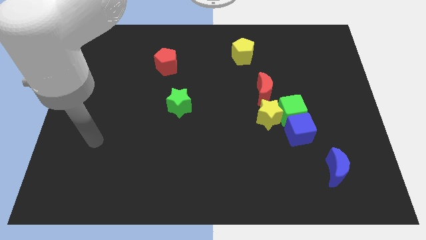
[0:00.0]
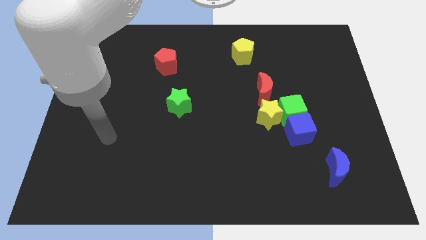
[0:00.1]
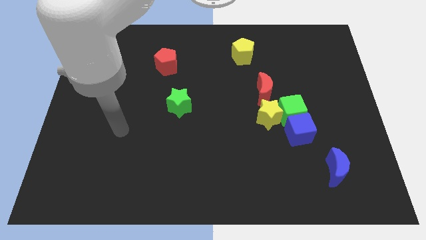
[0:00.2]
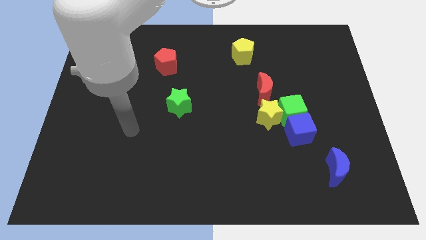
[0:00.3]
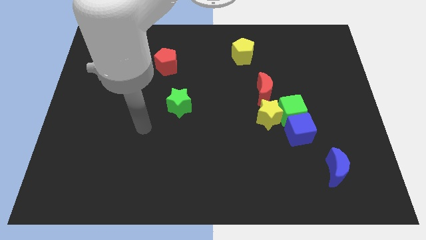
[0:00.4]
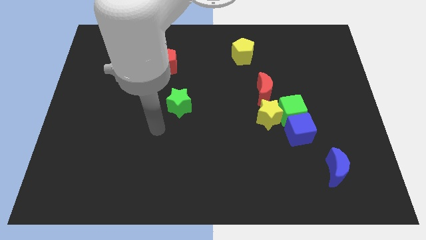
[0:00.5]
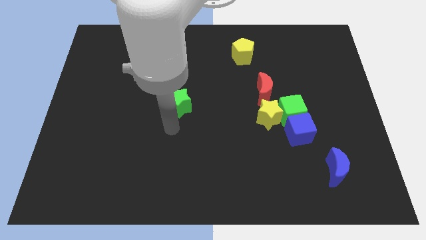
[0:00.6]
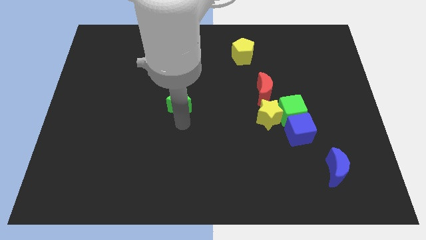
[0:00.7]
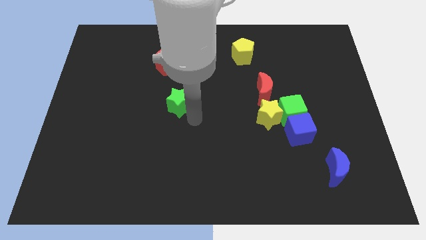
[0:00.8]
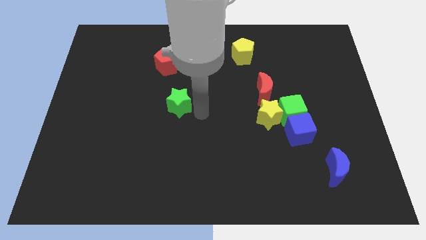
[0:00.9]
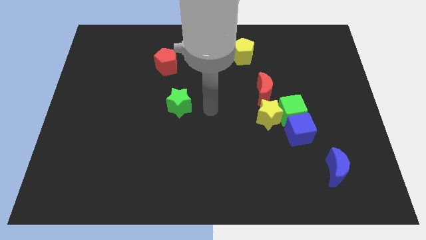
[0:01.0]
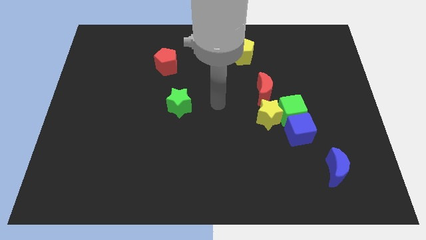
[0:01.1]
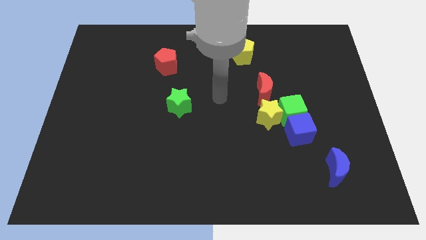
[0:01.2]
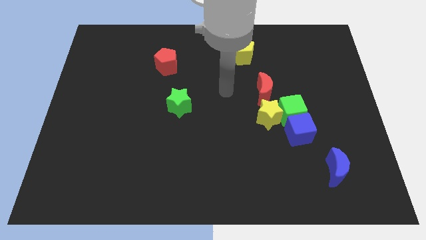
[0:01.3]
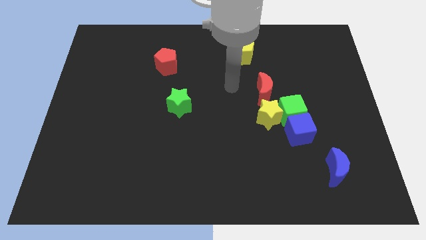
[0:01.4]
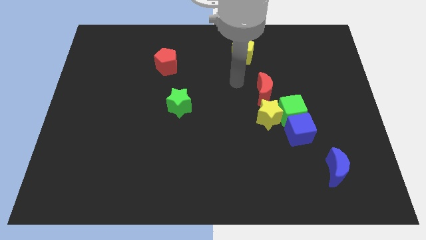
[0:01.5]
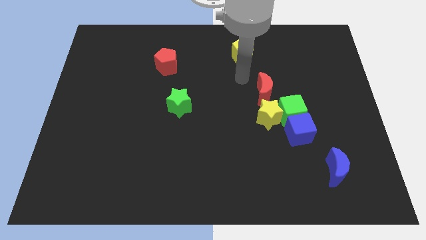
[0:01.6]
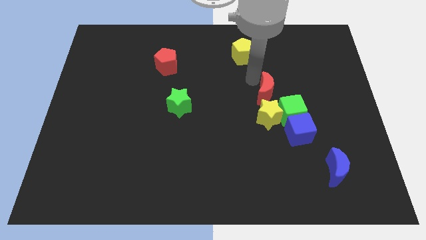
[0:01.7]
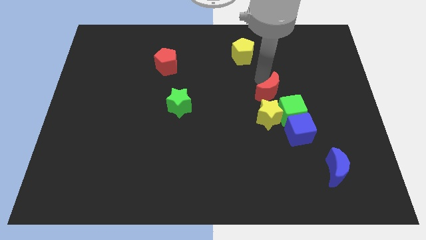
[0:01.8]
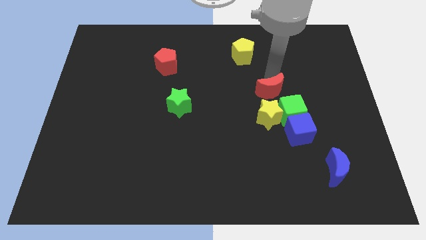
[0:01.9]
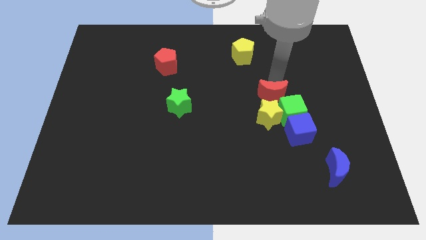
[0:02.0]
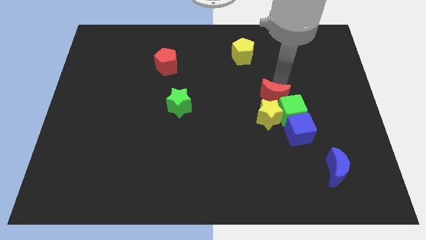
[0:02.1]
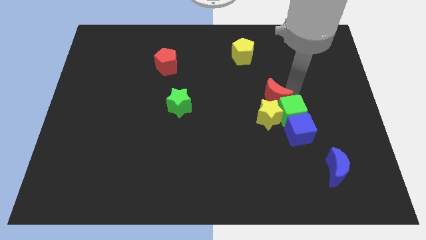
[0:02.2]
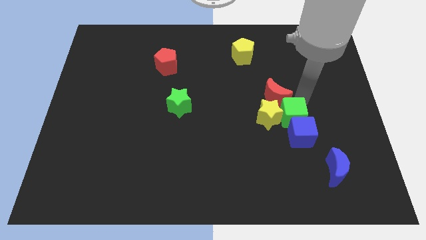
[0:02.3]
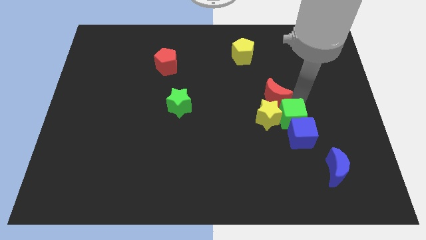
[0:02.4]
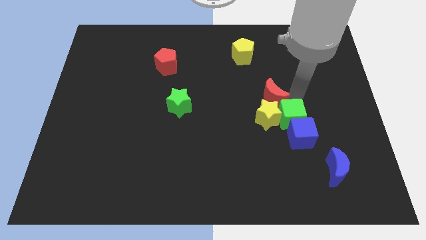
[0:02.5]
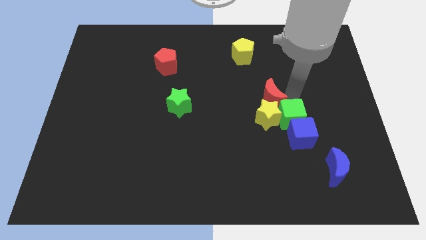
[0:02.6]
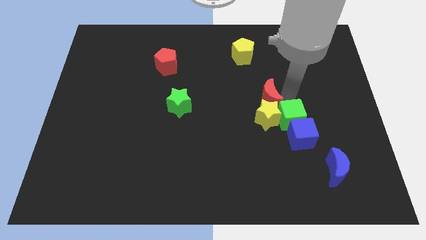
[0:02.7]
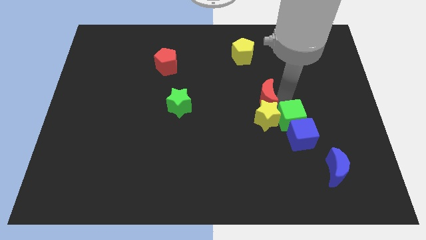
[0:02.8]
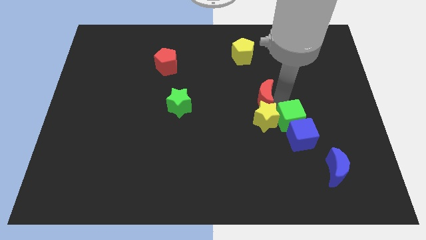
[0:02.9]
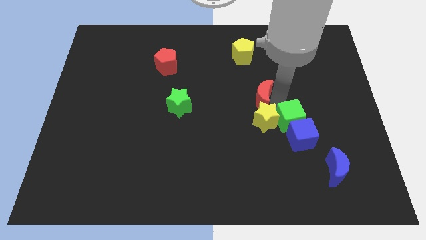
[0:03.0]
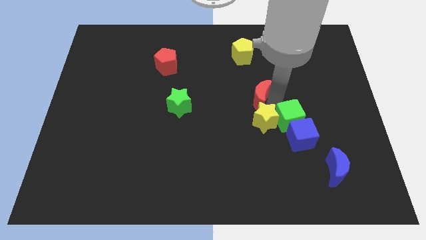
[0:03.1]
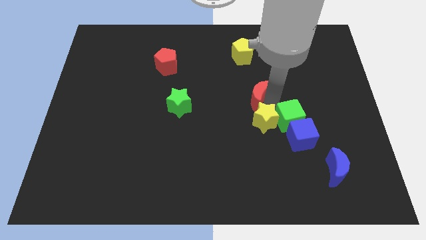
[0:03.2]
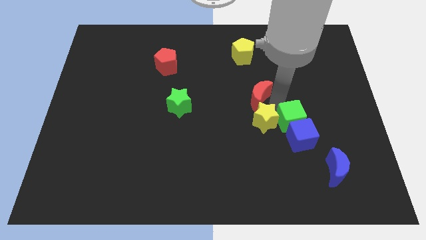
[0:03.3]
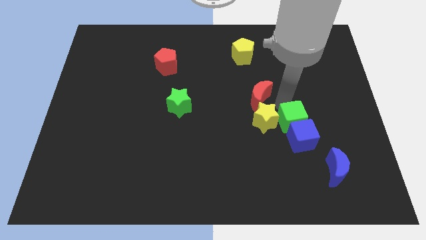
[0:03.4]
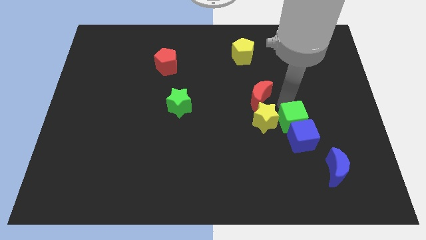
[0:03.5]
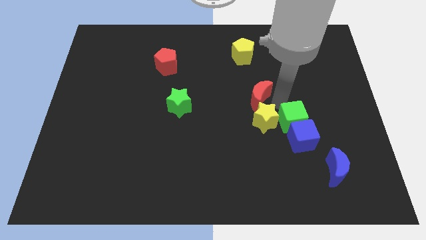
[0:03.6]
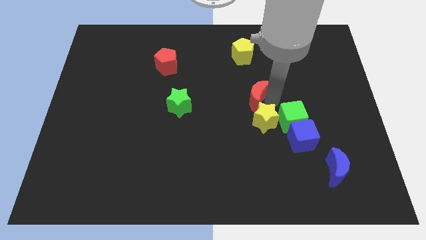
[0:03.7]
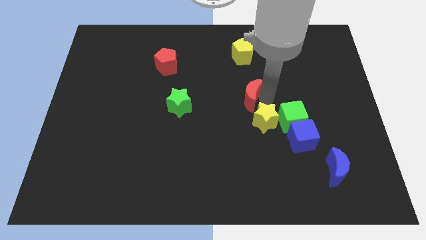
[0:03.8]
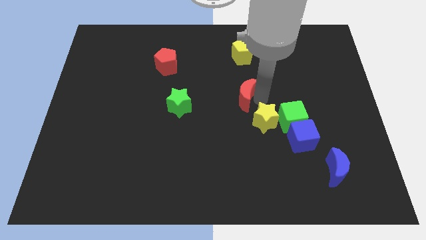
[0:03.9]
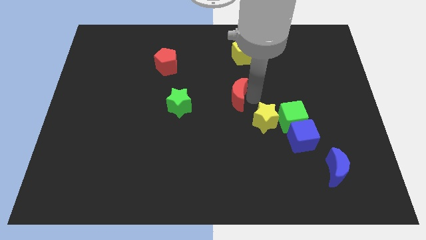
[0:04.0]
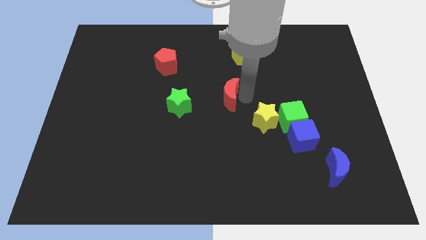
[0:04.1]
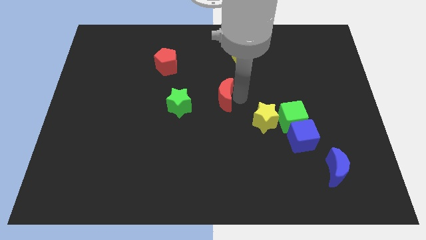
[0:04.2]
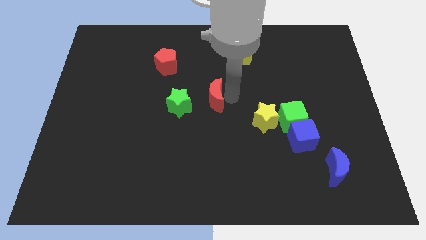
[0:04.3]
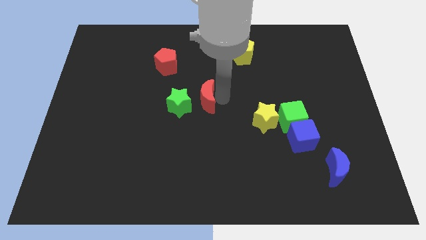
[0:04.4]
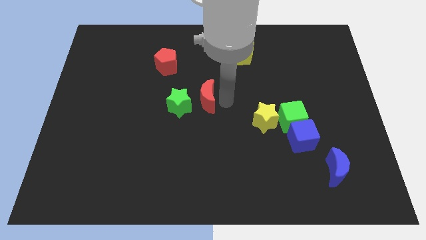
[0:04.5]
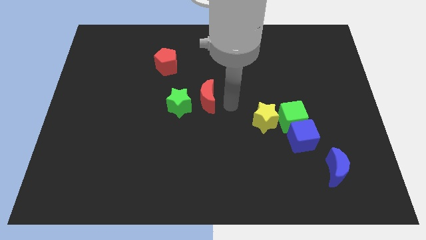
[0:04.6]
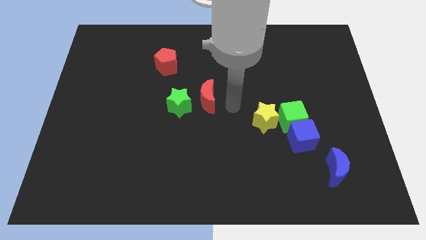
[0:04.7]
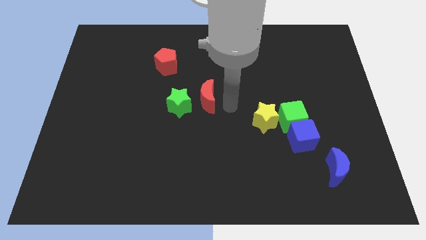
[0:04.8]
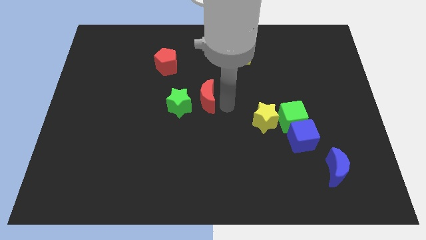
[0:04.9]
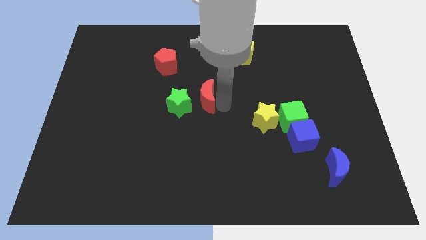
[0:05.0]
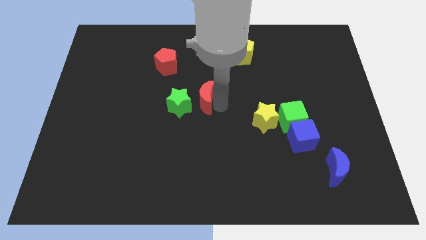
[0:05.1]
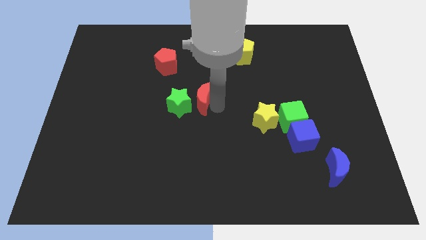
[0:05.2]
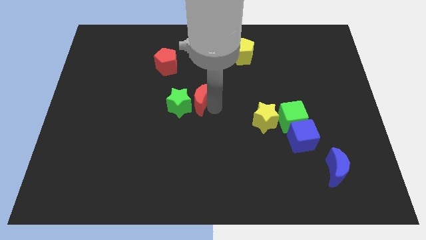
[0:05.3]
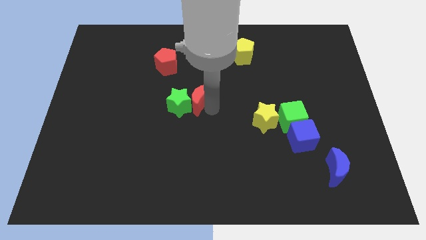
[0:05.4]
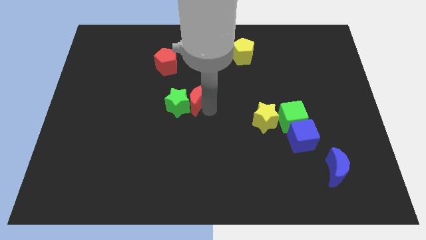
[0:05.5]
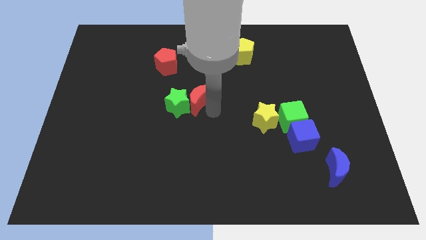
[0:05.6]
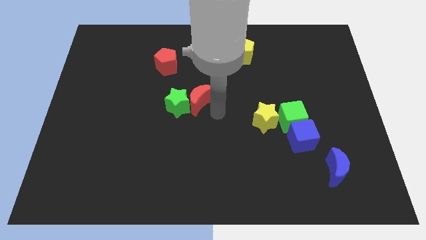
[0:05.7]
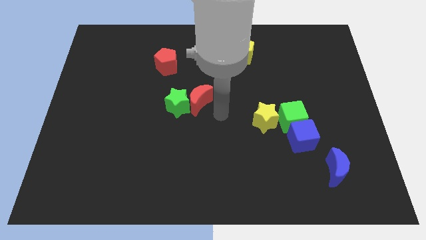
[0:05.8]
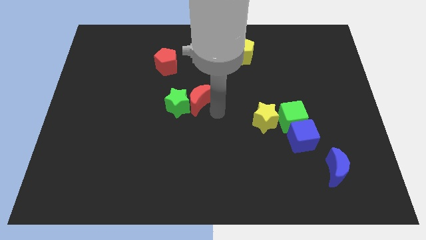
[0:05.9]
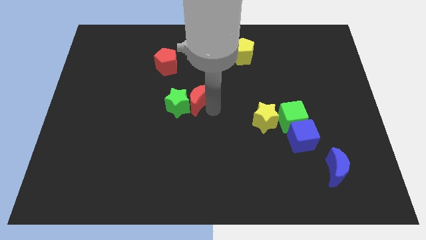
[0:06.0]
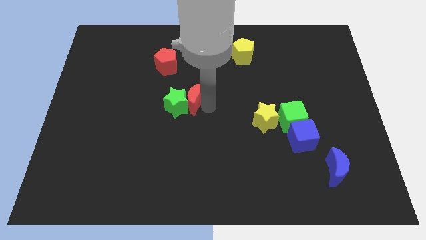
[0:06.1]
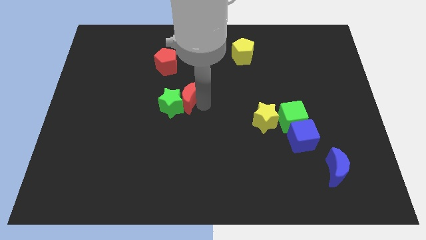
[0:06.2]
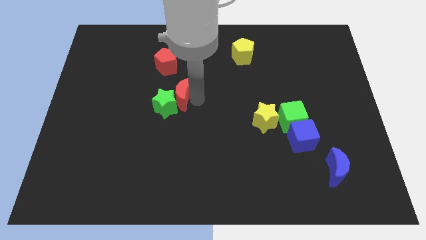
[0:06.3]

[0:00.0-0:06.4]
slide the red moon to the left

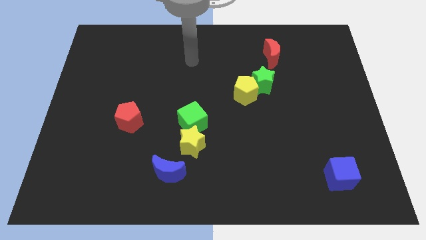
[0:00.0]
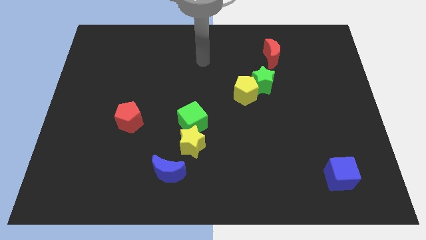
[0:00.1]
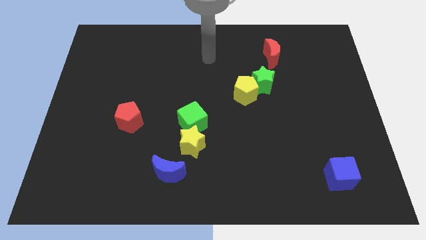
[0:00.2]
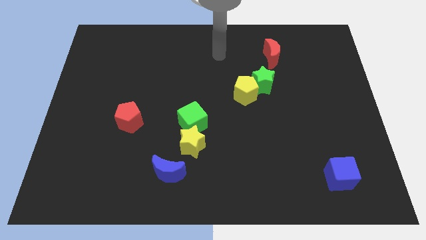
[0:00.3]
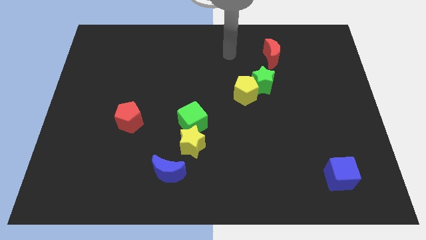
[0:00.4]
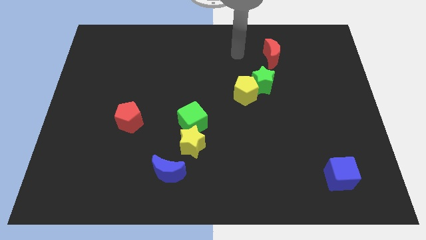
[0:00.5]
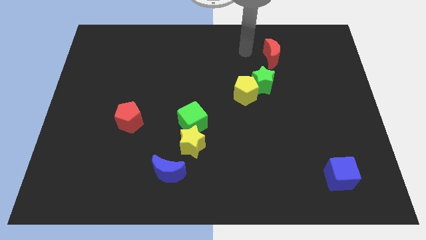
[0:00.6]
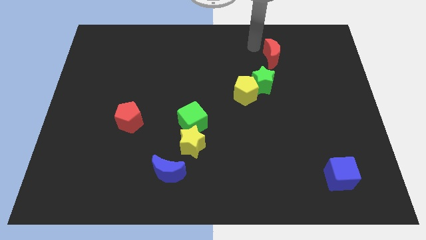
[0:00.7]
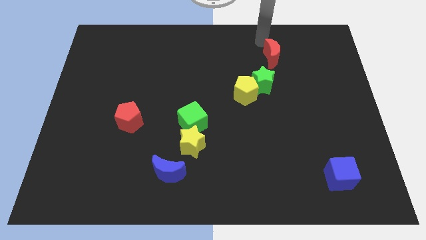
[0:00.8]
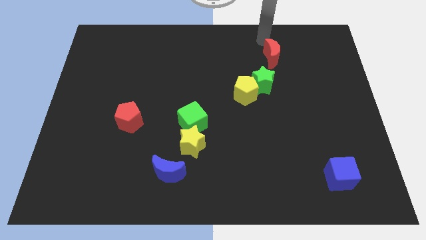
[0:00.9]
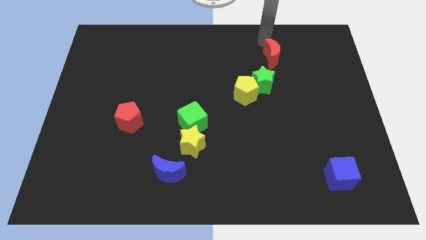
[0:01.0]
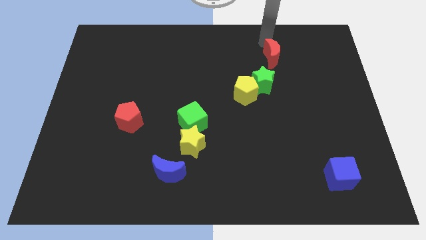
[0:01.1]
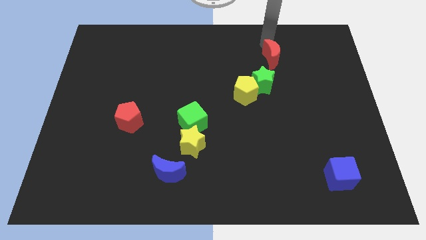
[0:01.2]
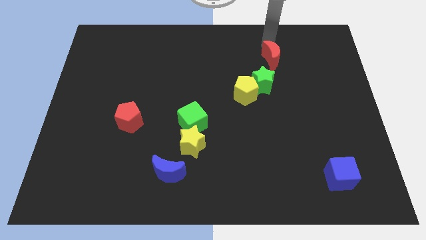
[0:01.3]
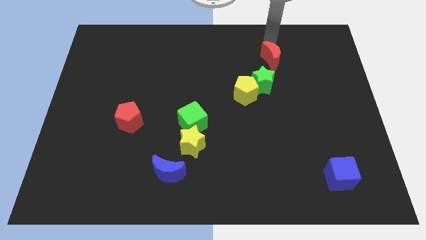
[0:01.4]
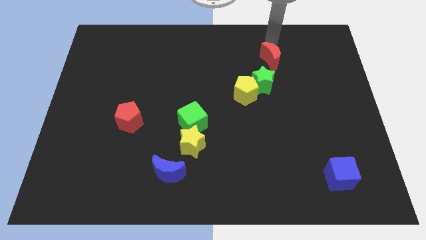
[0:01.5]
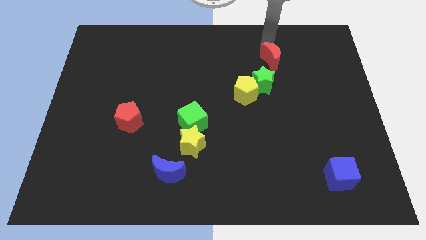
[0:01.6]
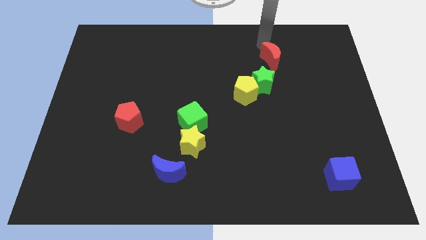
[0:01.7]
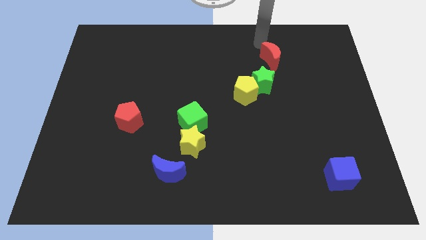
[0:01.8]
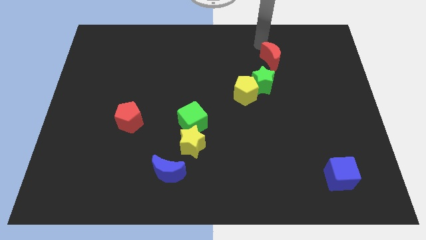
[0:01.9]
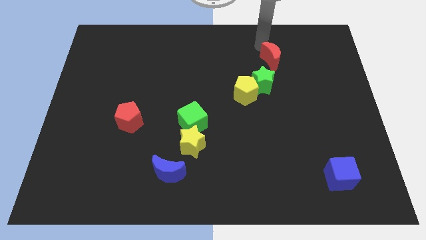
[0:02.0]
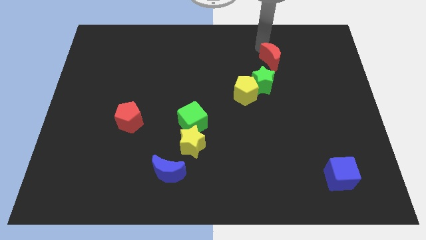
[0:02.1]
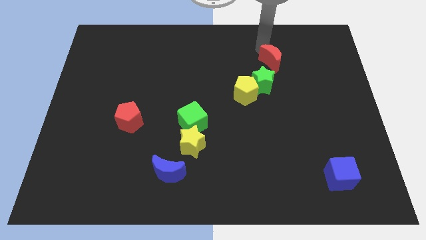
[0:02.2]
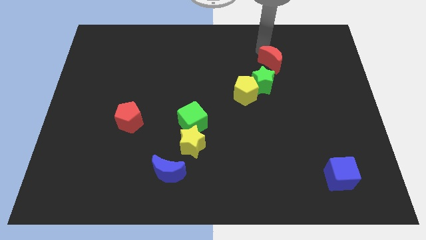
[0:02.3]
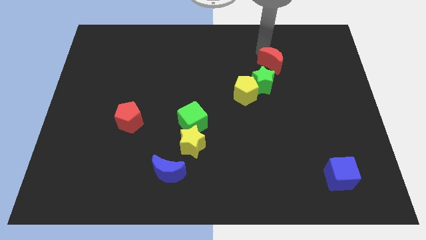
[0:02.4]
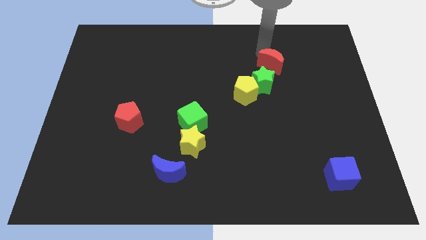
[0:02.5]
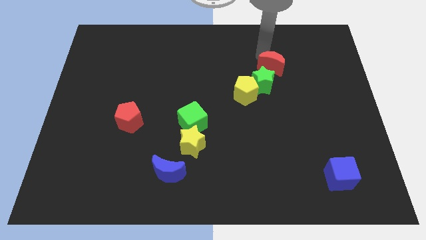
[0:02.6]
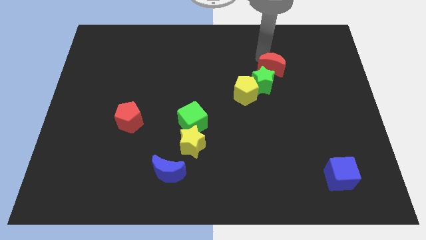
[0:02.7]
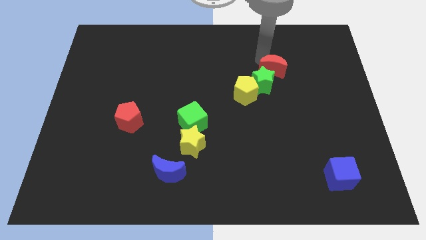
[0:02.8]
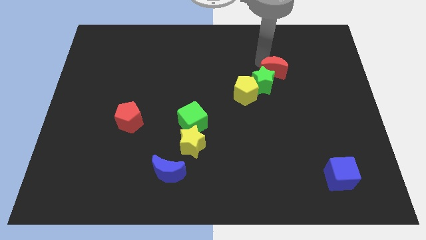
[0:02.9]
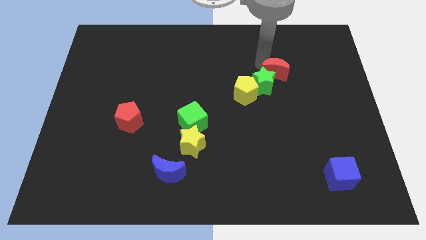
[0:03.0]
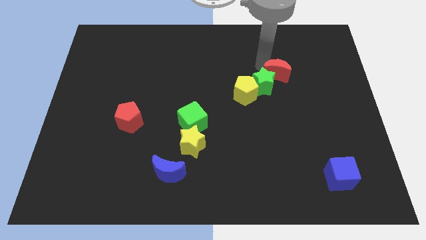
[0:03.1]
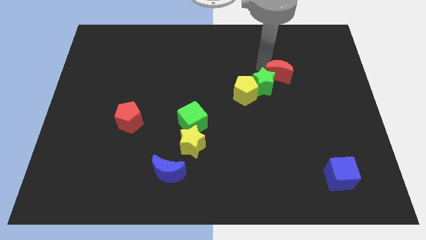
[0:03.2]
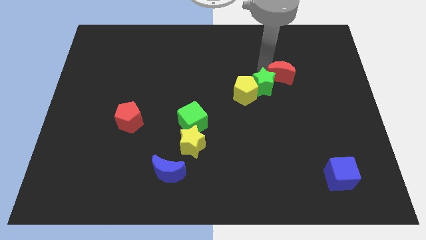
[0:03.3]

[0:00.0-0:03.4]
move the red moon a little bit down
